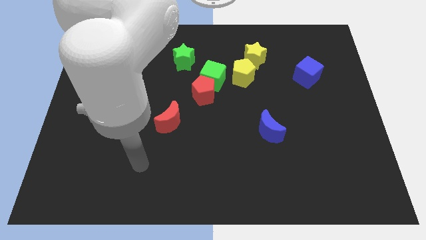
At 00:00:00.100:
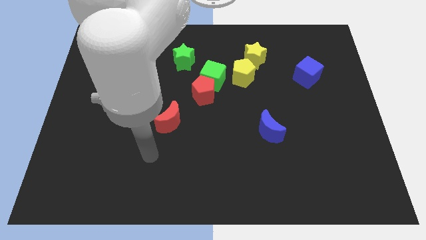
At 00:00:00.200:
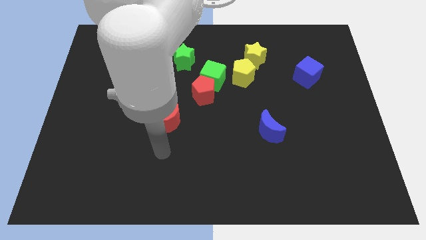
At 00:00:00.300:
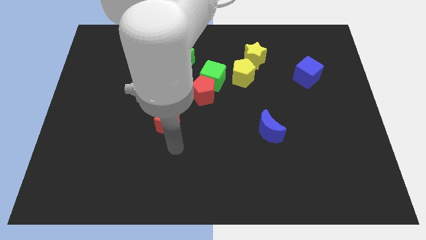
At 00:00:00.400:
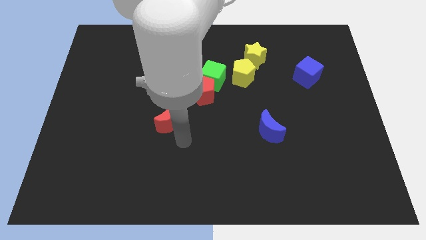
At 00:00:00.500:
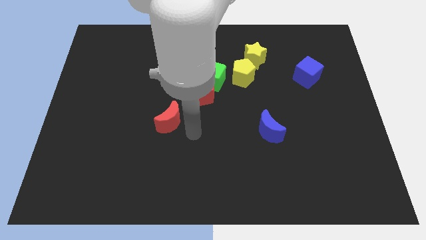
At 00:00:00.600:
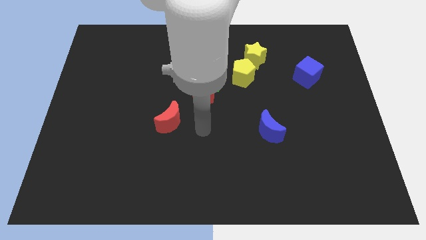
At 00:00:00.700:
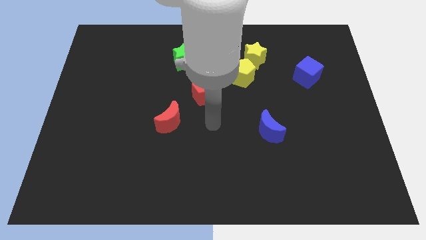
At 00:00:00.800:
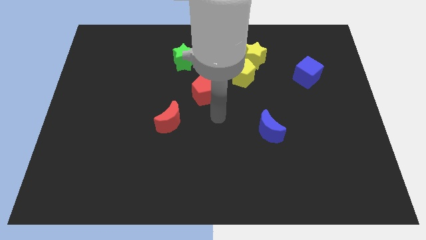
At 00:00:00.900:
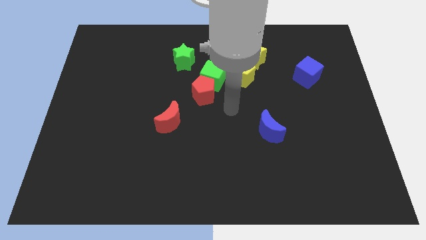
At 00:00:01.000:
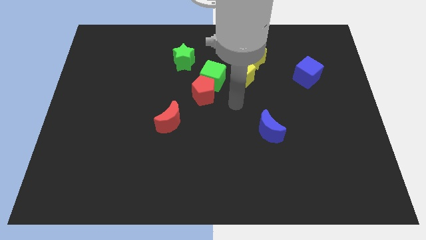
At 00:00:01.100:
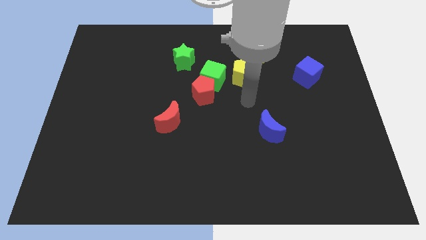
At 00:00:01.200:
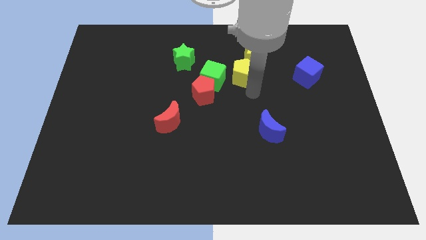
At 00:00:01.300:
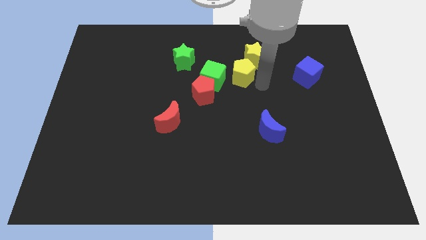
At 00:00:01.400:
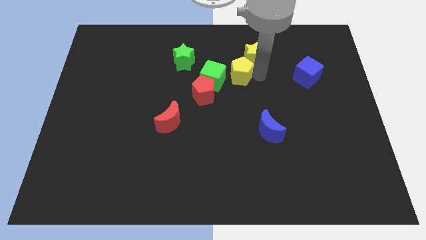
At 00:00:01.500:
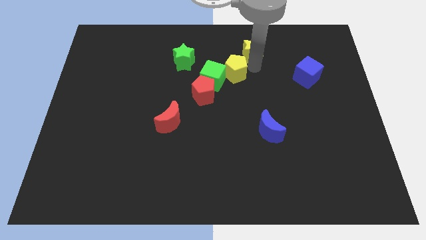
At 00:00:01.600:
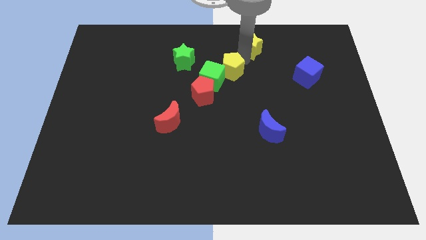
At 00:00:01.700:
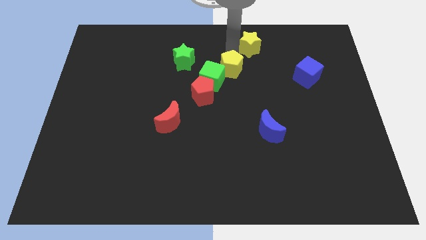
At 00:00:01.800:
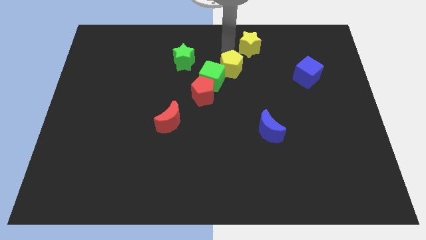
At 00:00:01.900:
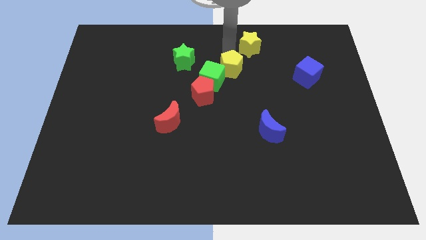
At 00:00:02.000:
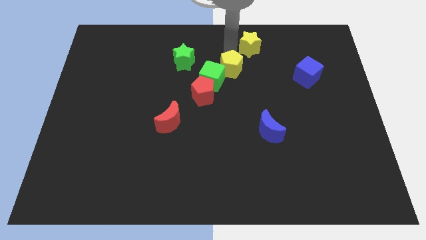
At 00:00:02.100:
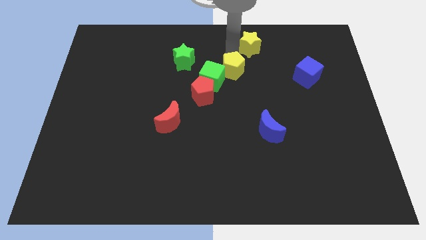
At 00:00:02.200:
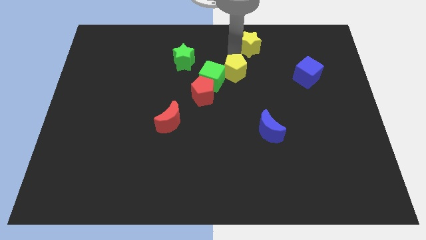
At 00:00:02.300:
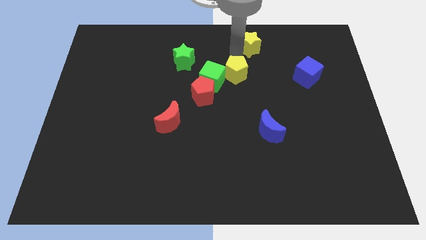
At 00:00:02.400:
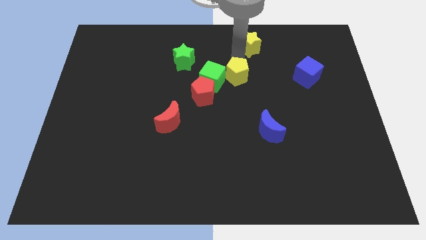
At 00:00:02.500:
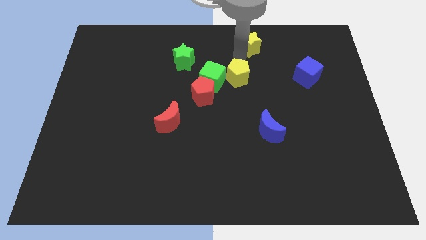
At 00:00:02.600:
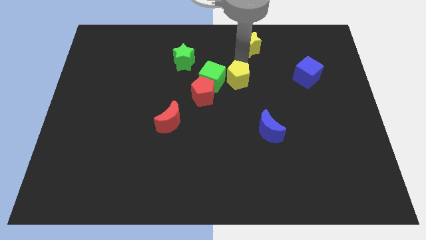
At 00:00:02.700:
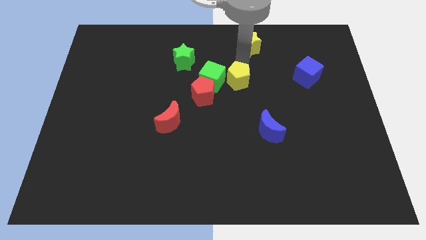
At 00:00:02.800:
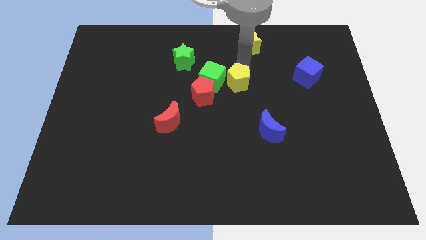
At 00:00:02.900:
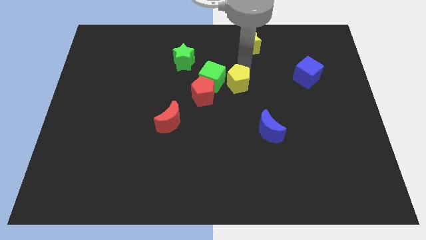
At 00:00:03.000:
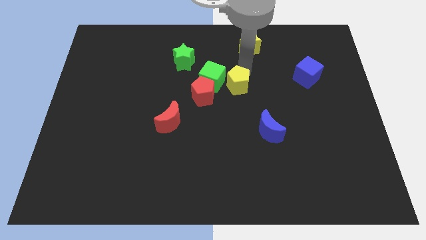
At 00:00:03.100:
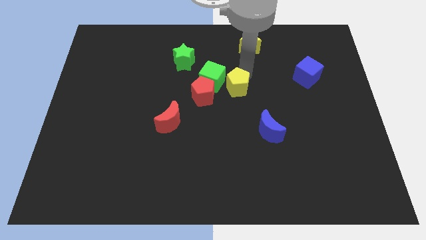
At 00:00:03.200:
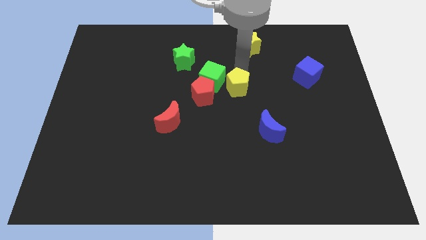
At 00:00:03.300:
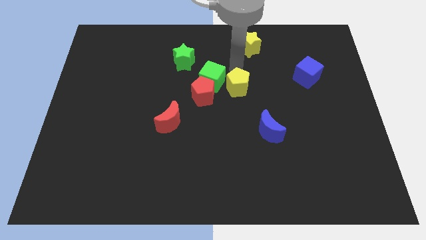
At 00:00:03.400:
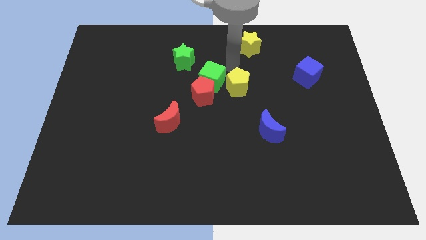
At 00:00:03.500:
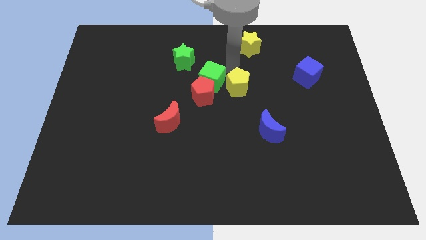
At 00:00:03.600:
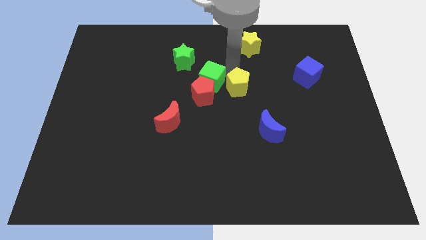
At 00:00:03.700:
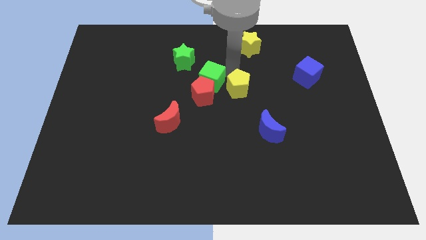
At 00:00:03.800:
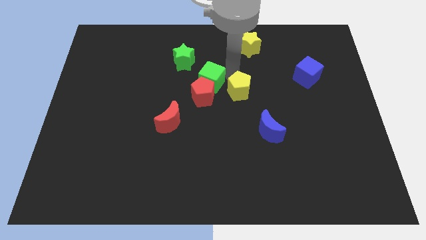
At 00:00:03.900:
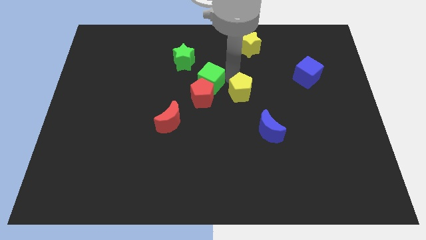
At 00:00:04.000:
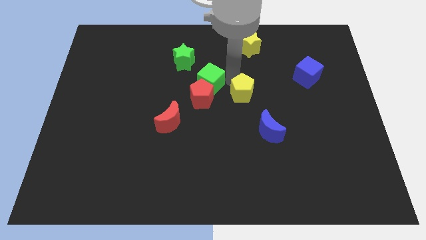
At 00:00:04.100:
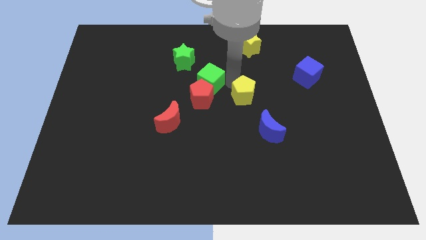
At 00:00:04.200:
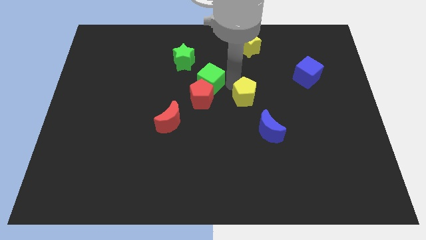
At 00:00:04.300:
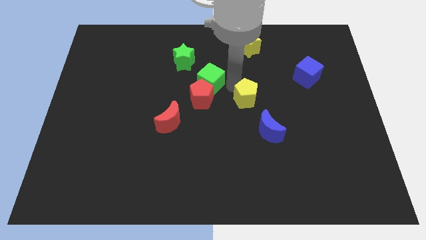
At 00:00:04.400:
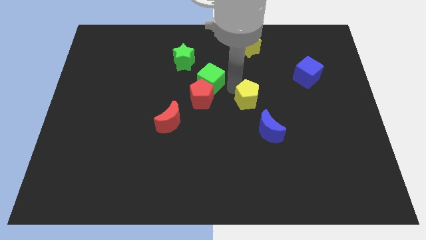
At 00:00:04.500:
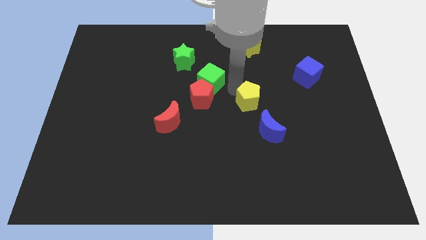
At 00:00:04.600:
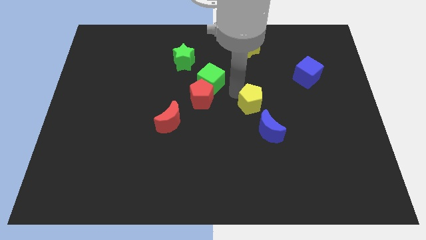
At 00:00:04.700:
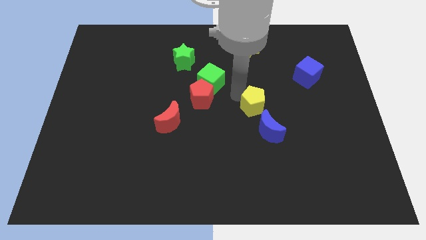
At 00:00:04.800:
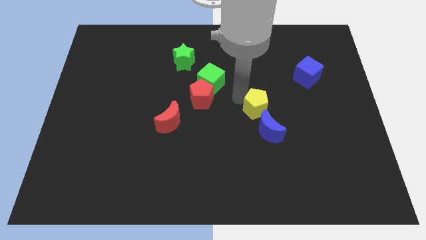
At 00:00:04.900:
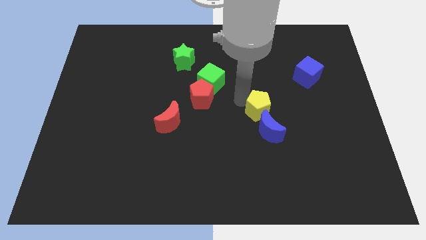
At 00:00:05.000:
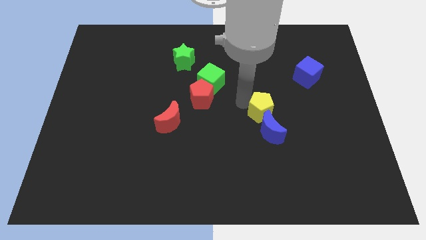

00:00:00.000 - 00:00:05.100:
push the yellow pentagon close to the blue moon

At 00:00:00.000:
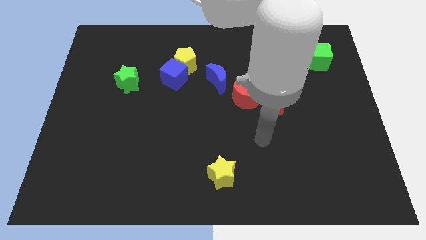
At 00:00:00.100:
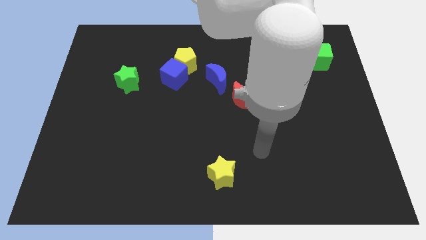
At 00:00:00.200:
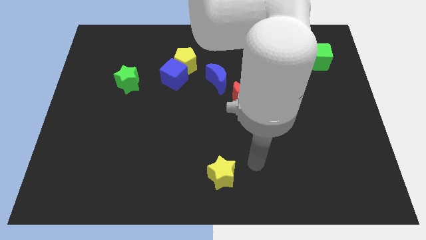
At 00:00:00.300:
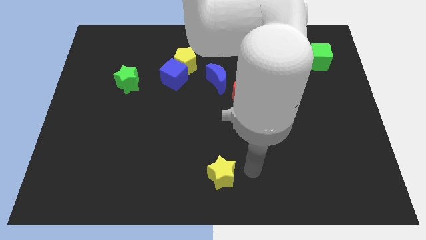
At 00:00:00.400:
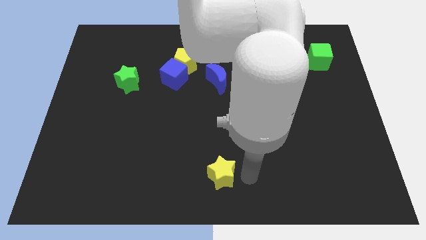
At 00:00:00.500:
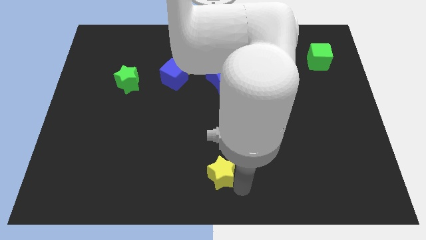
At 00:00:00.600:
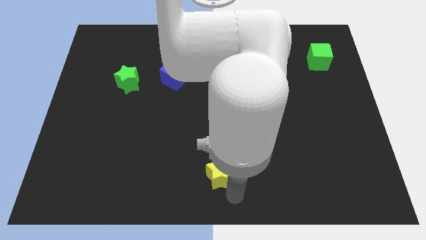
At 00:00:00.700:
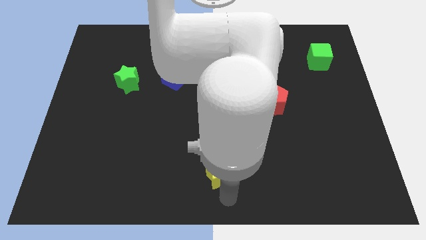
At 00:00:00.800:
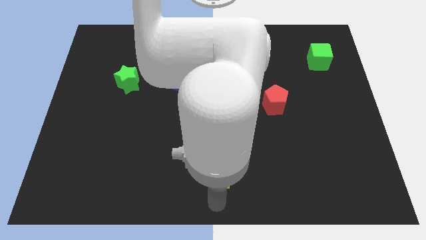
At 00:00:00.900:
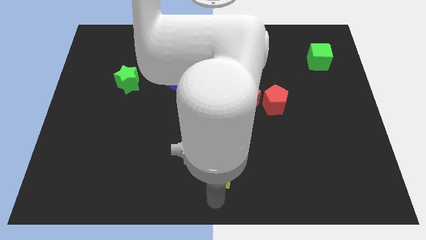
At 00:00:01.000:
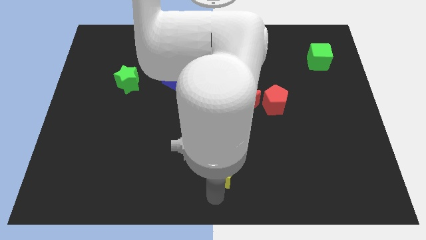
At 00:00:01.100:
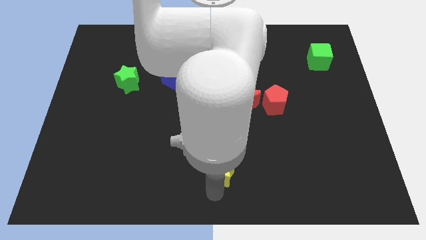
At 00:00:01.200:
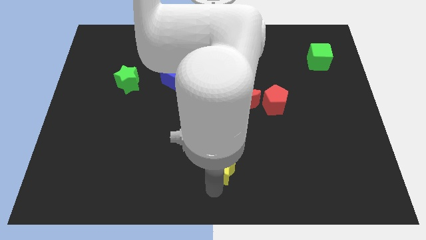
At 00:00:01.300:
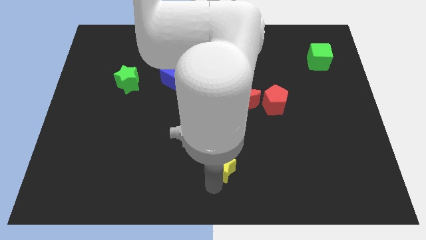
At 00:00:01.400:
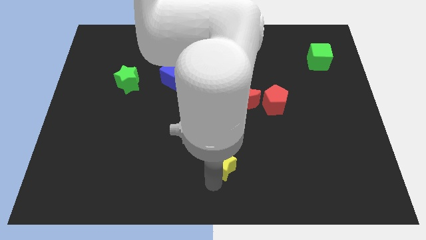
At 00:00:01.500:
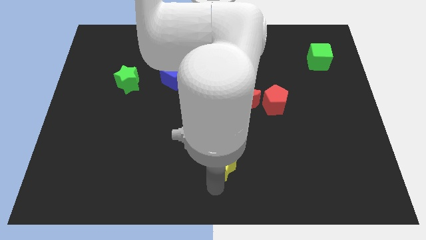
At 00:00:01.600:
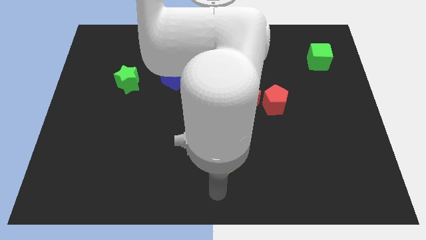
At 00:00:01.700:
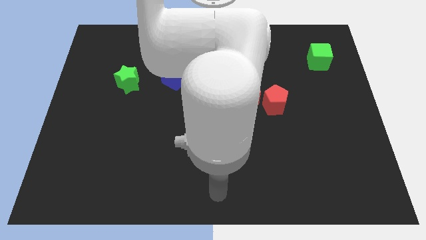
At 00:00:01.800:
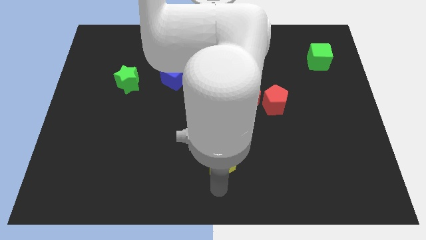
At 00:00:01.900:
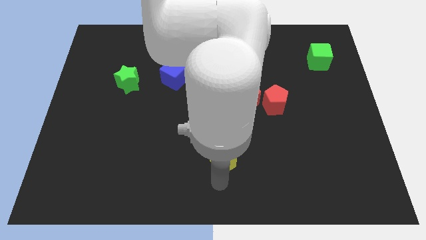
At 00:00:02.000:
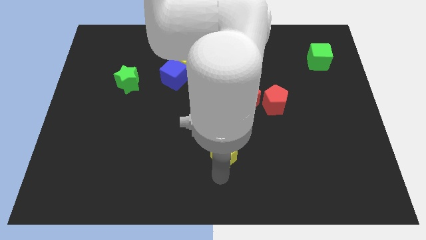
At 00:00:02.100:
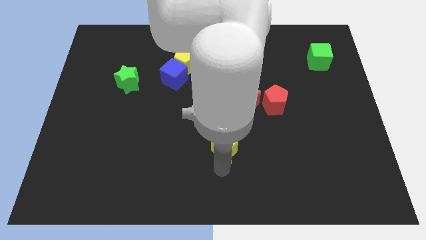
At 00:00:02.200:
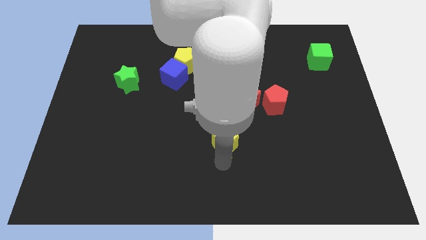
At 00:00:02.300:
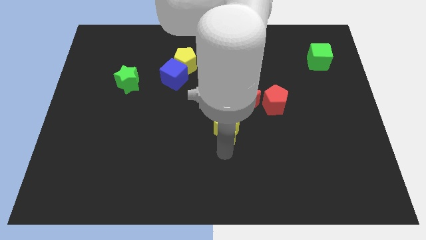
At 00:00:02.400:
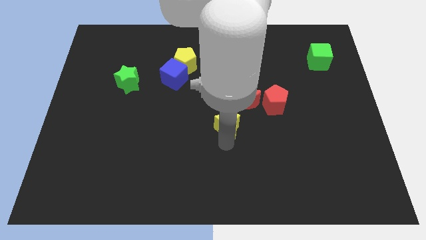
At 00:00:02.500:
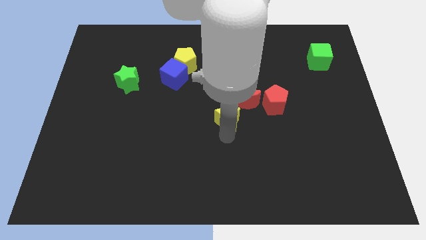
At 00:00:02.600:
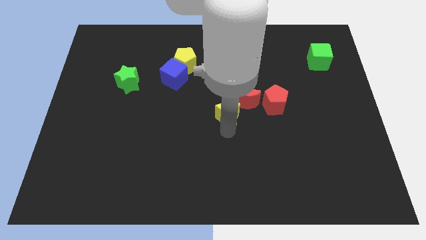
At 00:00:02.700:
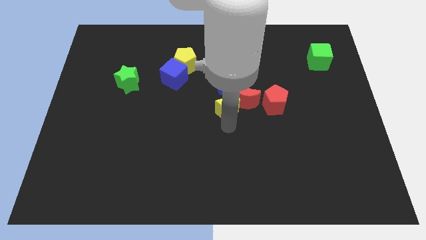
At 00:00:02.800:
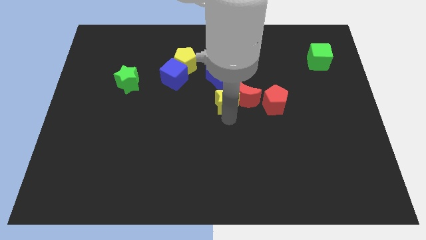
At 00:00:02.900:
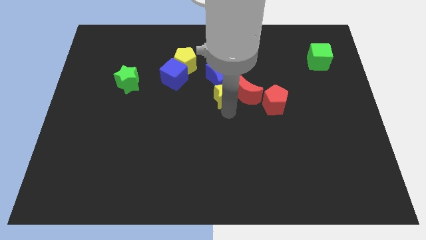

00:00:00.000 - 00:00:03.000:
move the yellow star to the blue moon
